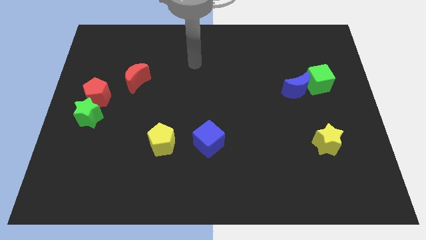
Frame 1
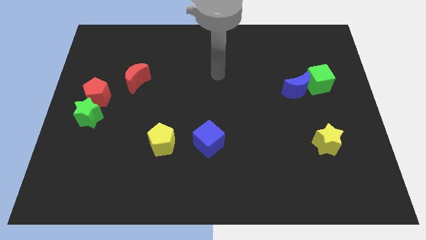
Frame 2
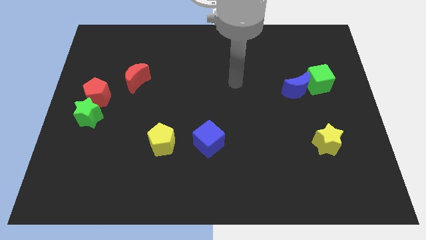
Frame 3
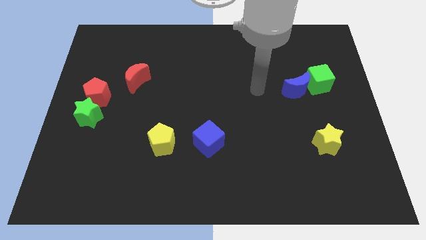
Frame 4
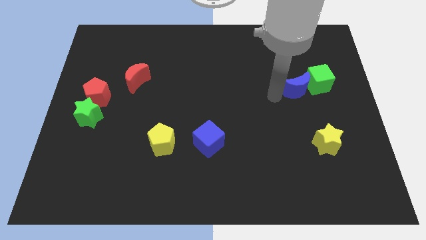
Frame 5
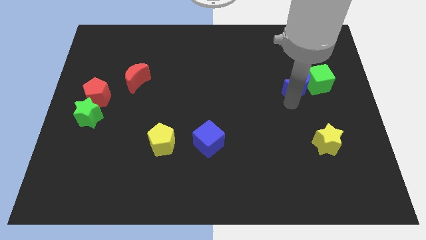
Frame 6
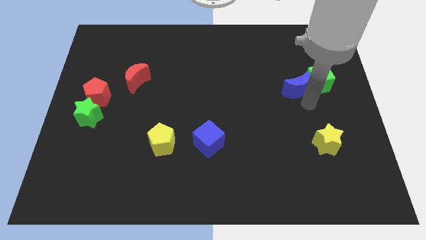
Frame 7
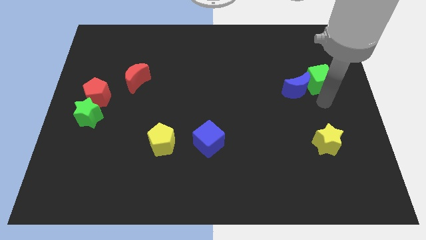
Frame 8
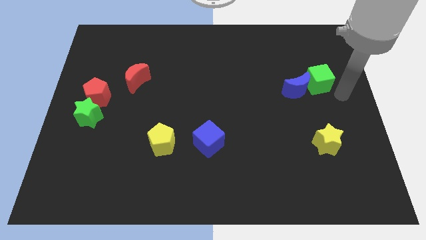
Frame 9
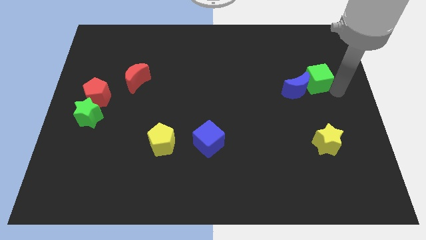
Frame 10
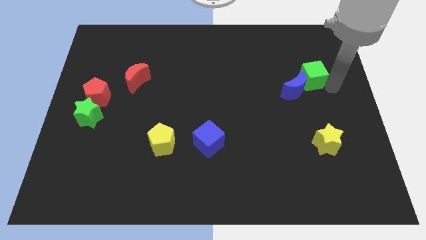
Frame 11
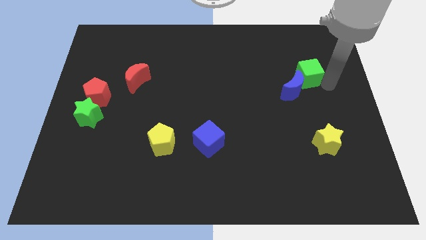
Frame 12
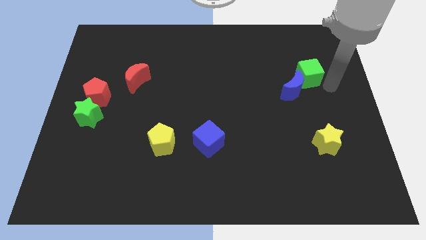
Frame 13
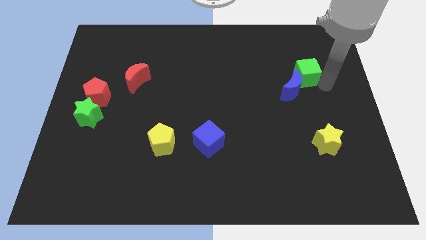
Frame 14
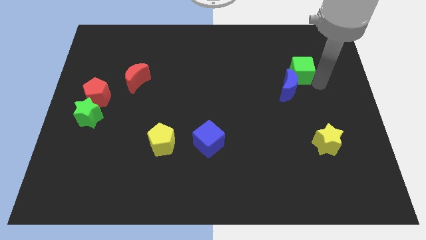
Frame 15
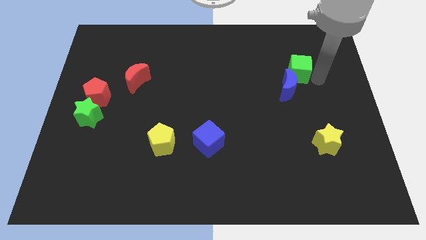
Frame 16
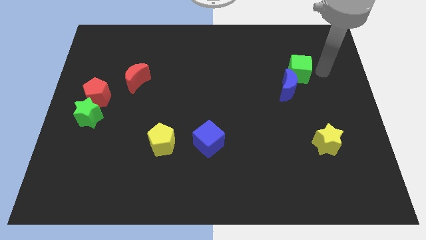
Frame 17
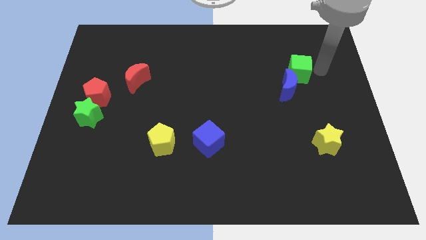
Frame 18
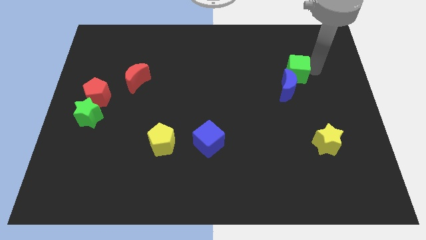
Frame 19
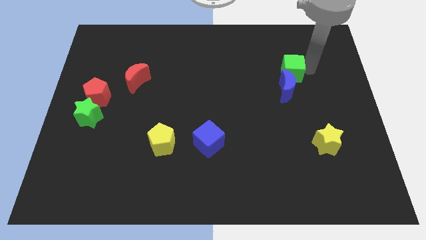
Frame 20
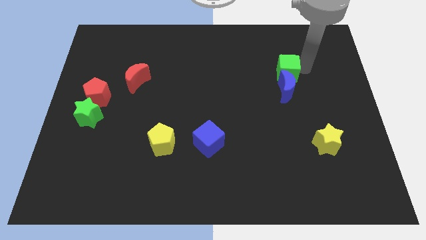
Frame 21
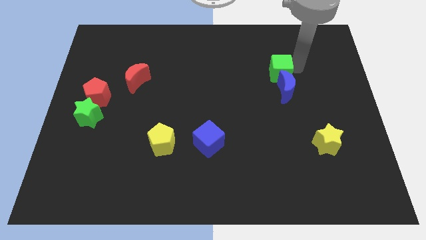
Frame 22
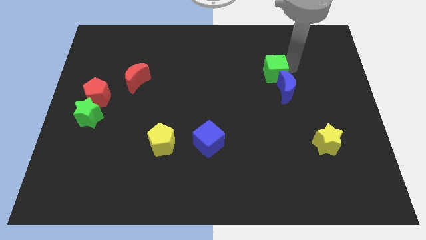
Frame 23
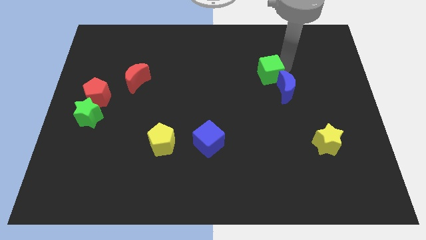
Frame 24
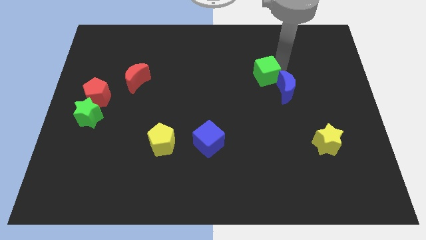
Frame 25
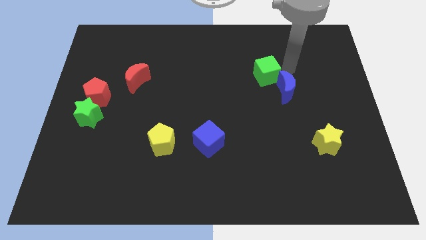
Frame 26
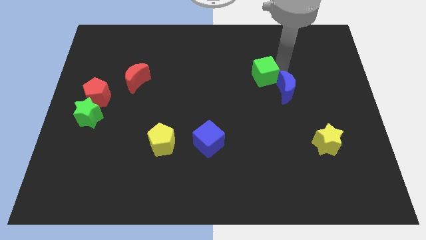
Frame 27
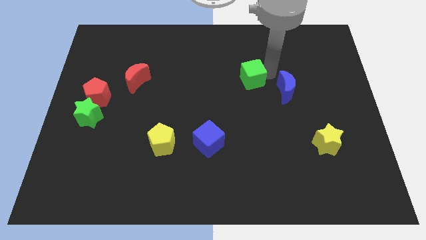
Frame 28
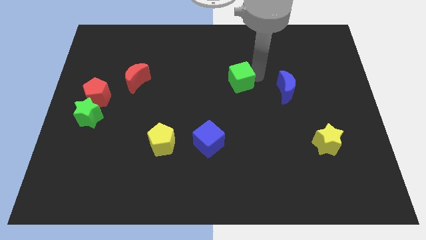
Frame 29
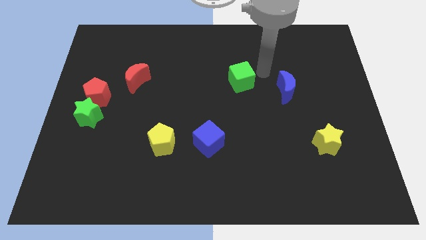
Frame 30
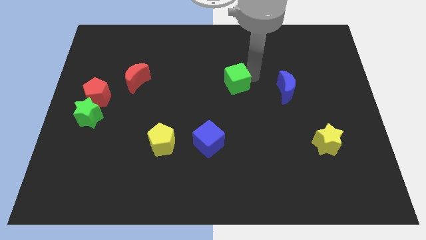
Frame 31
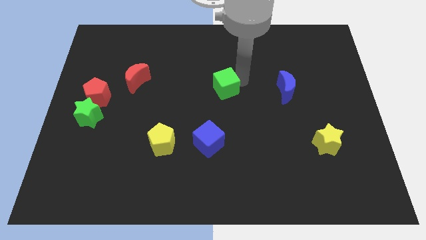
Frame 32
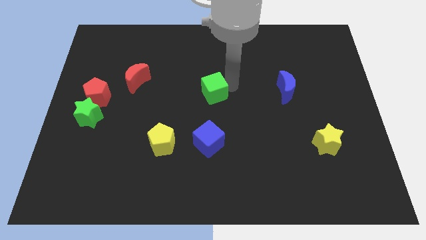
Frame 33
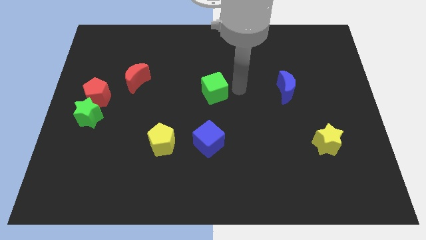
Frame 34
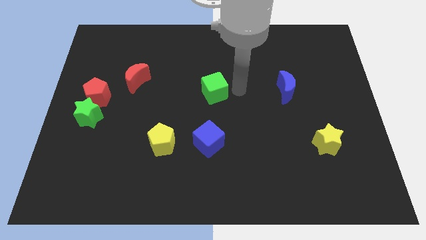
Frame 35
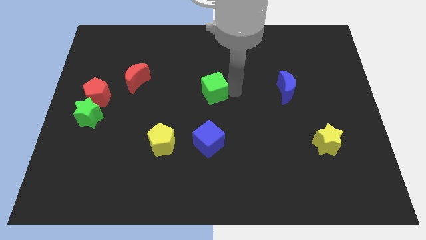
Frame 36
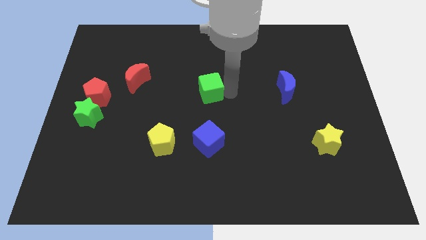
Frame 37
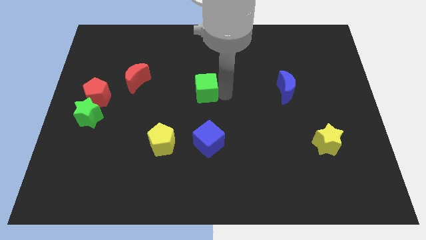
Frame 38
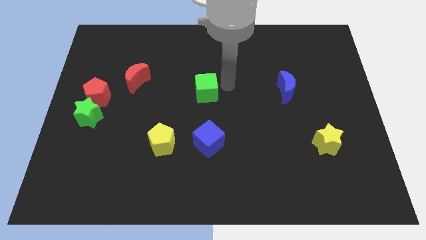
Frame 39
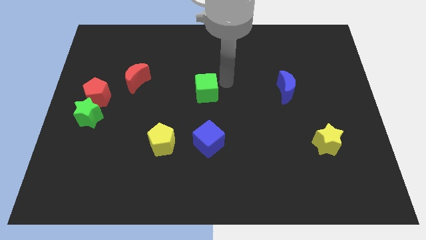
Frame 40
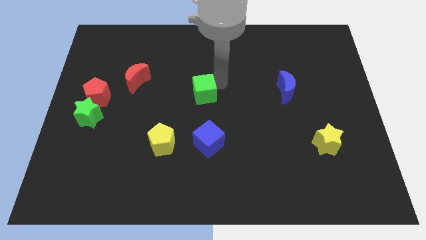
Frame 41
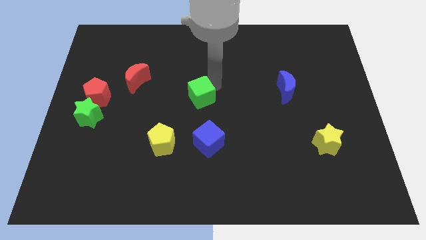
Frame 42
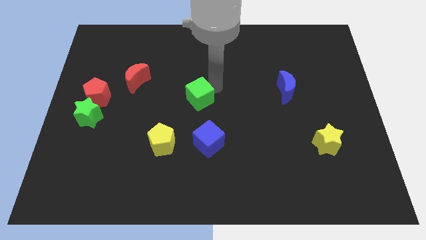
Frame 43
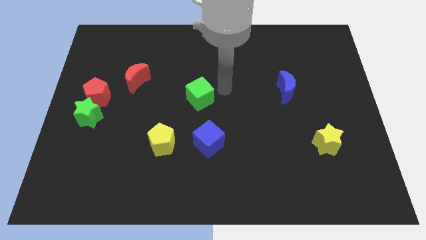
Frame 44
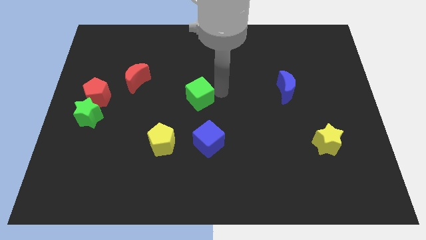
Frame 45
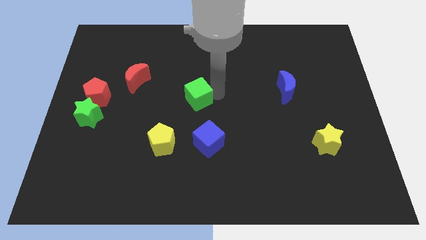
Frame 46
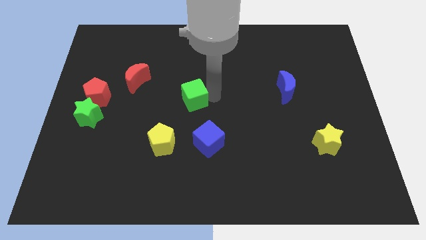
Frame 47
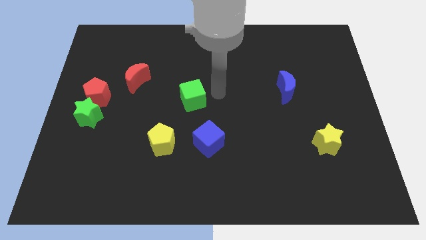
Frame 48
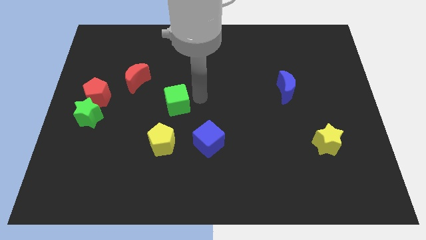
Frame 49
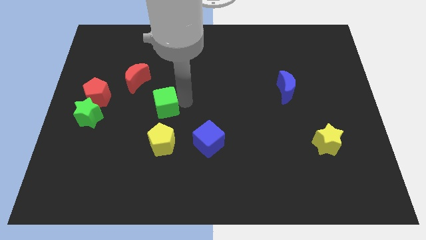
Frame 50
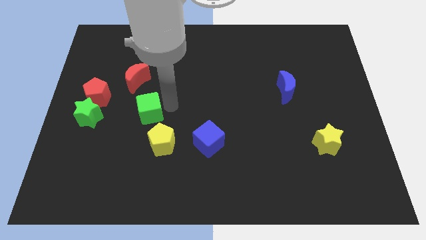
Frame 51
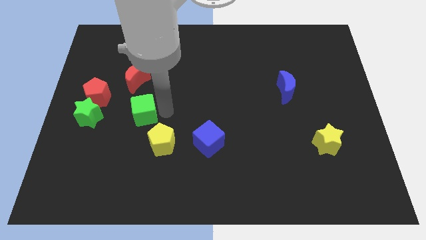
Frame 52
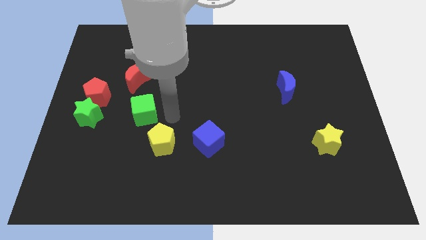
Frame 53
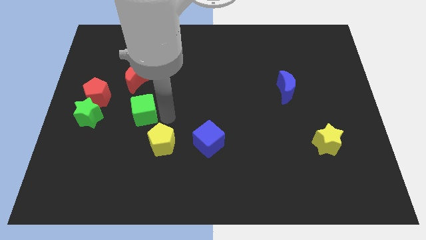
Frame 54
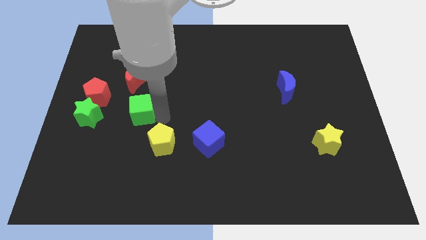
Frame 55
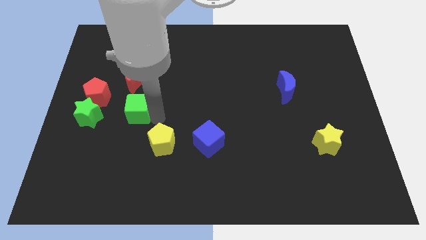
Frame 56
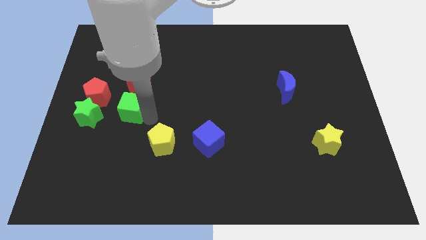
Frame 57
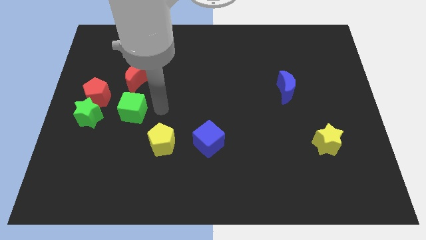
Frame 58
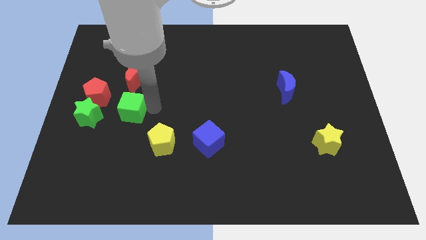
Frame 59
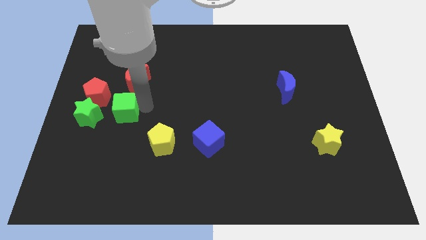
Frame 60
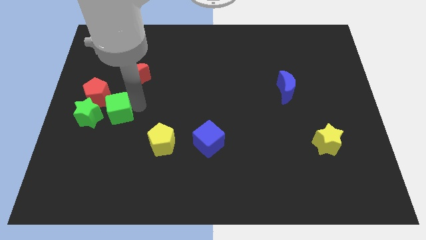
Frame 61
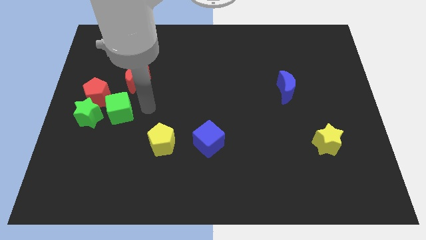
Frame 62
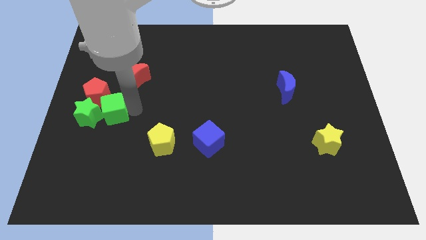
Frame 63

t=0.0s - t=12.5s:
put the green cube towards the green star

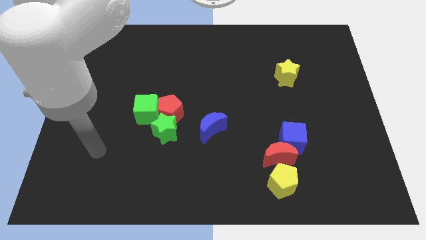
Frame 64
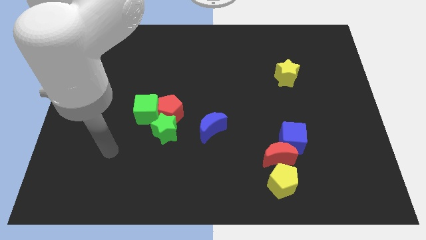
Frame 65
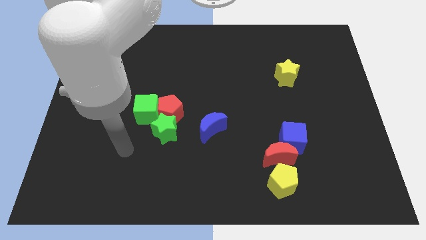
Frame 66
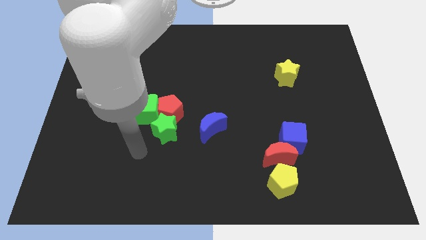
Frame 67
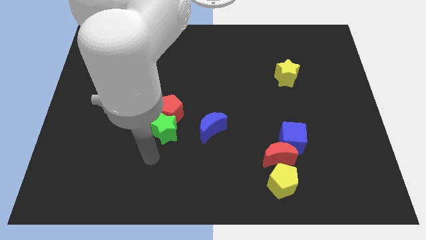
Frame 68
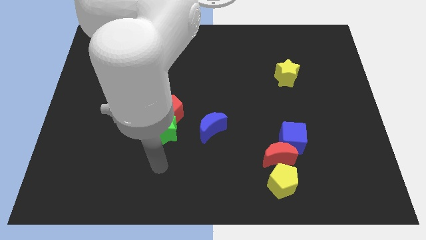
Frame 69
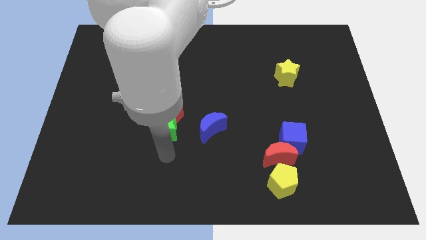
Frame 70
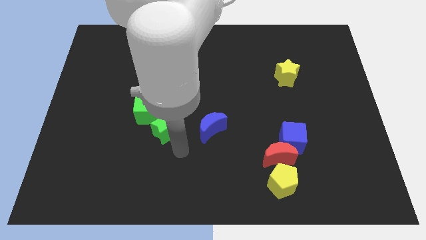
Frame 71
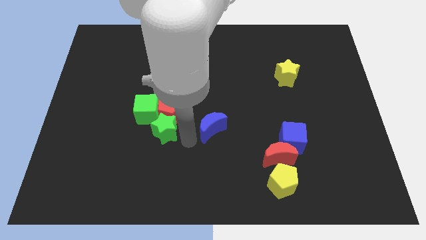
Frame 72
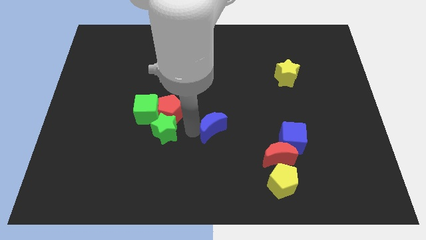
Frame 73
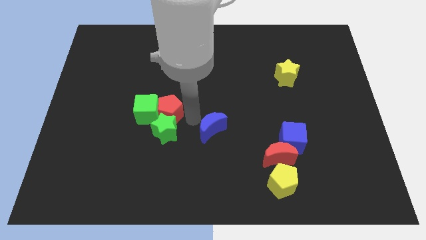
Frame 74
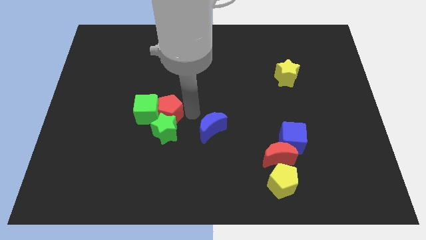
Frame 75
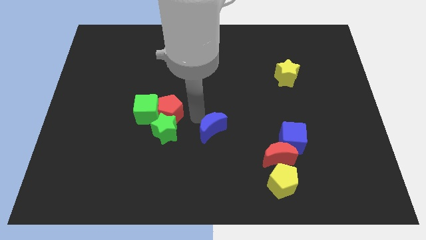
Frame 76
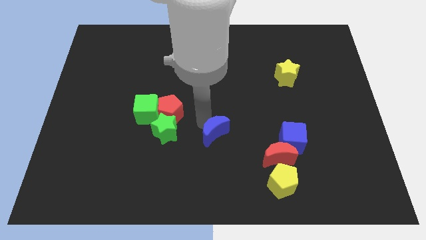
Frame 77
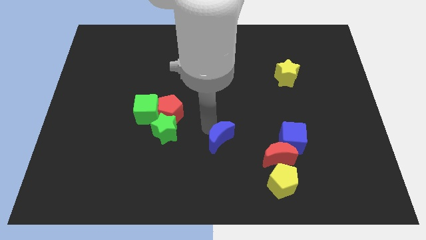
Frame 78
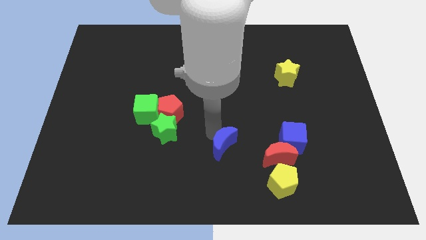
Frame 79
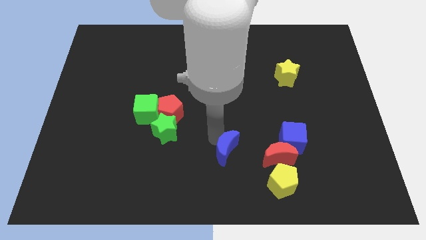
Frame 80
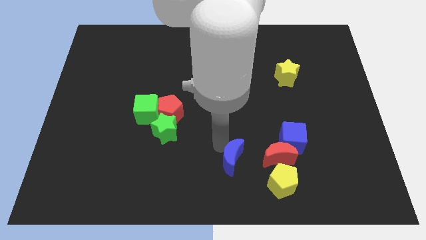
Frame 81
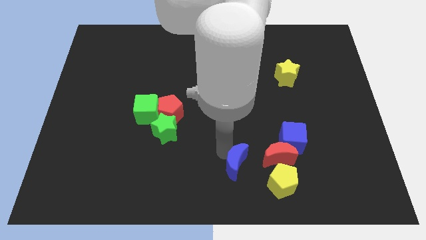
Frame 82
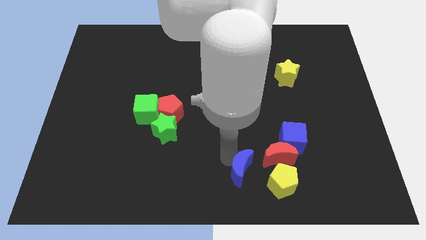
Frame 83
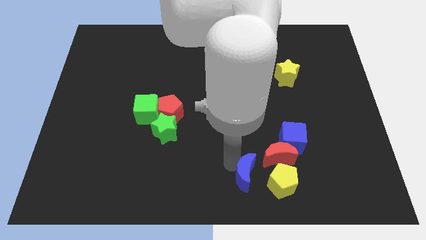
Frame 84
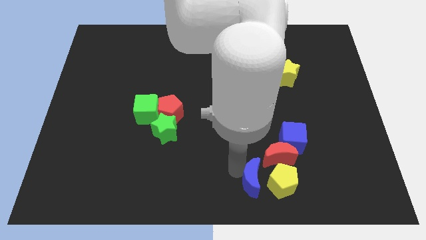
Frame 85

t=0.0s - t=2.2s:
put the blue moon next to the yellow pentagon
